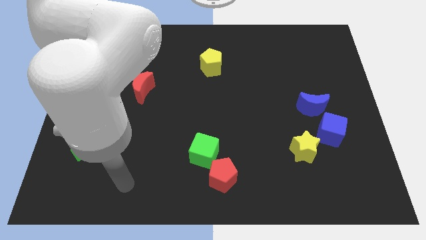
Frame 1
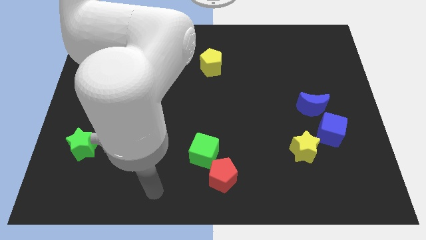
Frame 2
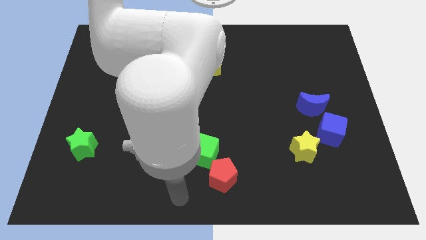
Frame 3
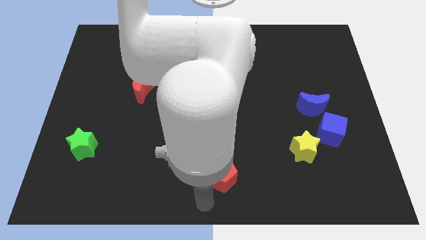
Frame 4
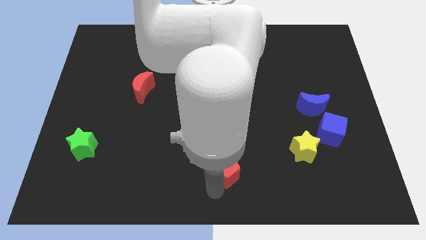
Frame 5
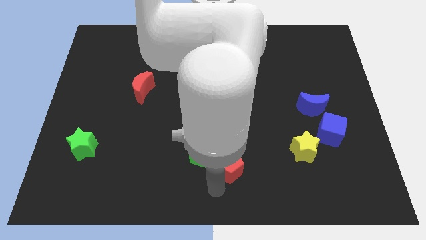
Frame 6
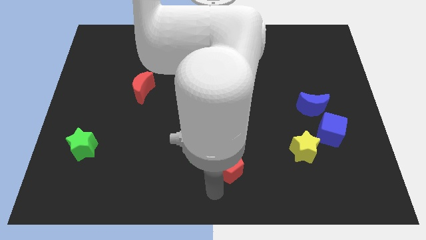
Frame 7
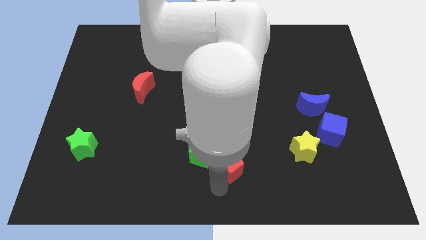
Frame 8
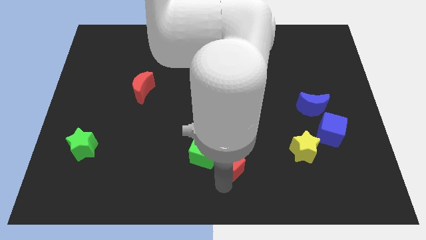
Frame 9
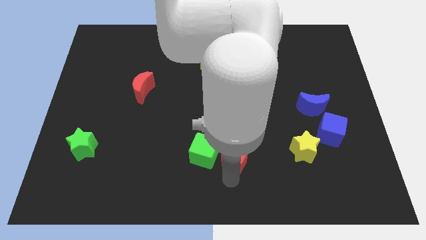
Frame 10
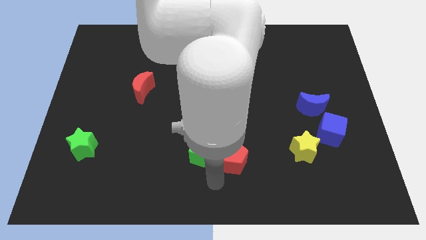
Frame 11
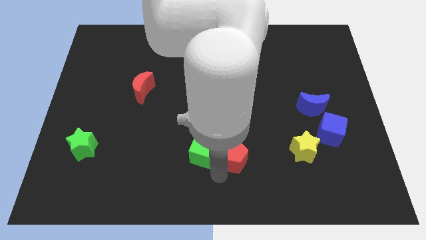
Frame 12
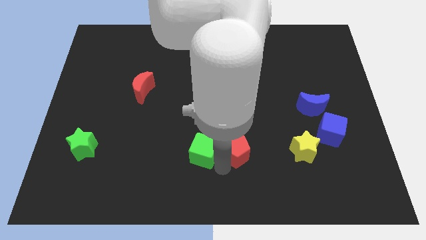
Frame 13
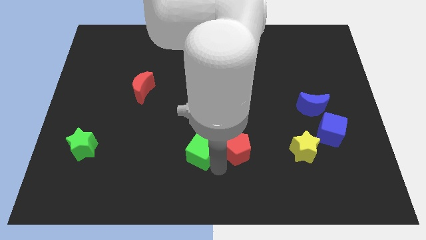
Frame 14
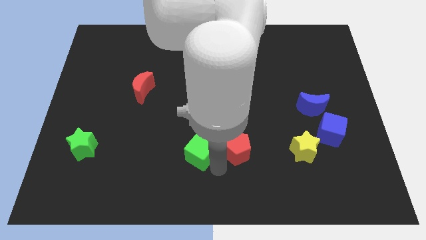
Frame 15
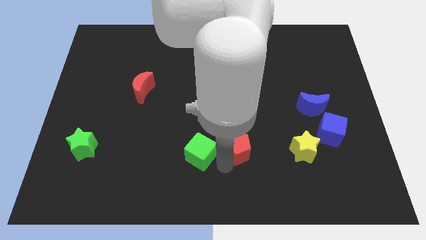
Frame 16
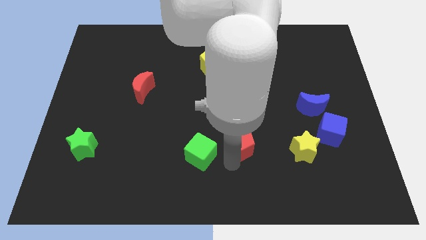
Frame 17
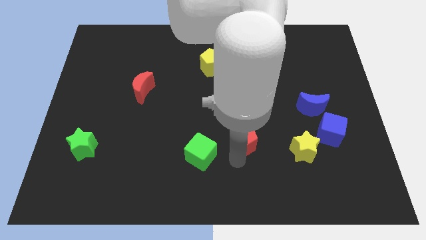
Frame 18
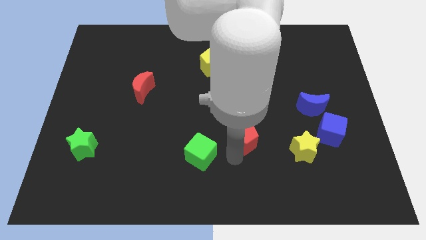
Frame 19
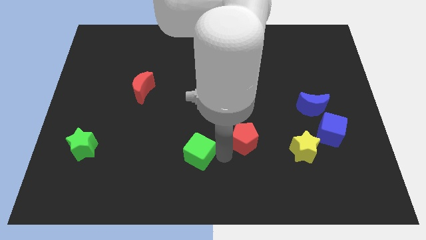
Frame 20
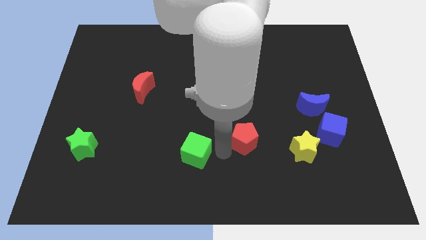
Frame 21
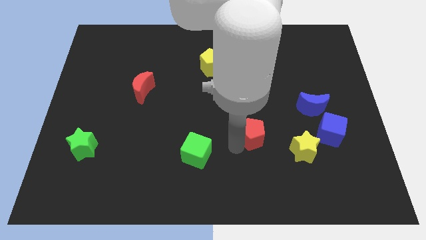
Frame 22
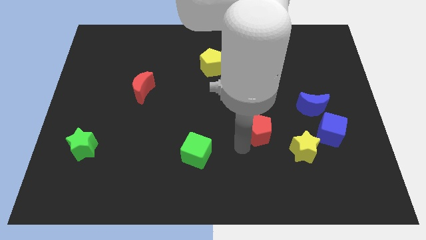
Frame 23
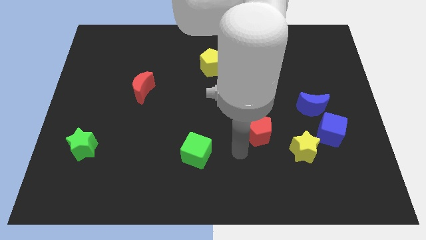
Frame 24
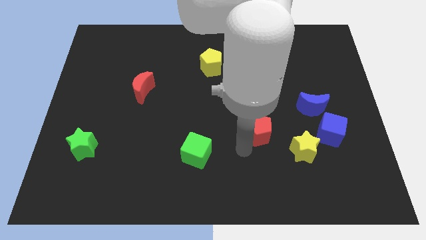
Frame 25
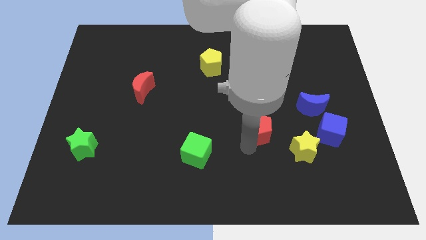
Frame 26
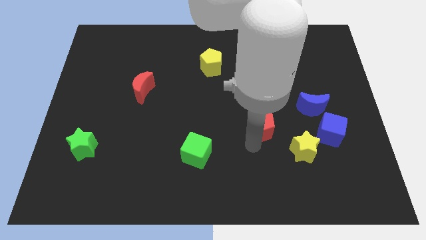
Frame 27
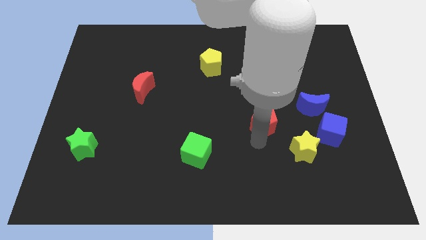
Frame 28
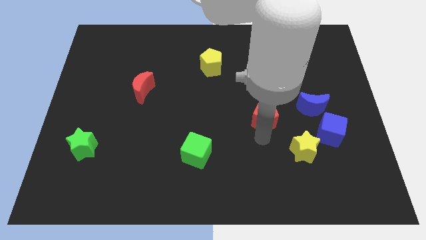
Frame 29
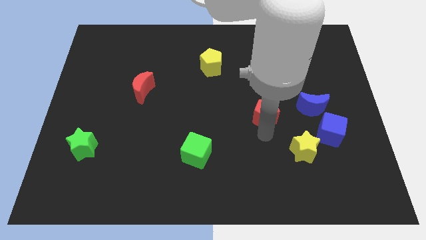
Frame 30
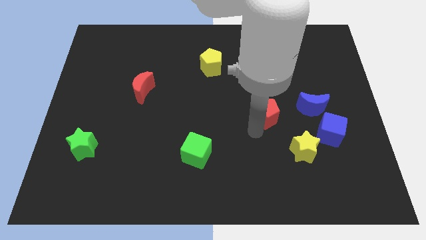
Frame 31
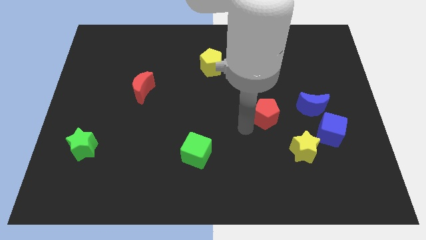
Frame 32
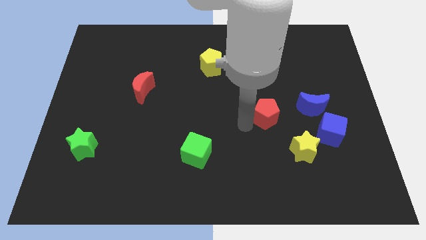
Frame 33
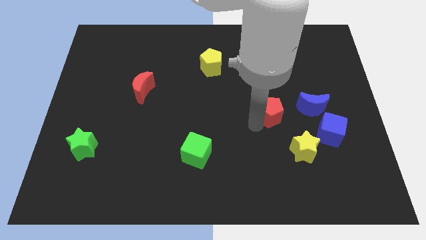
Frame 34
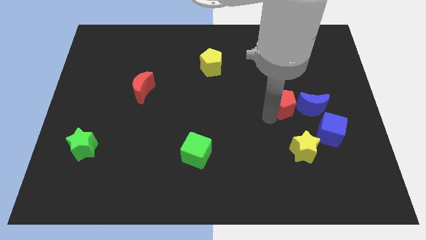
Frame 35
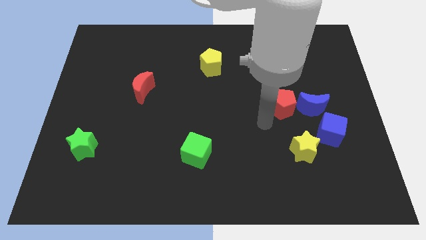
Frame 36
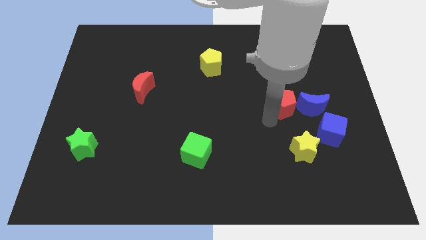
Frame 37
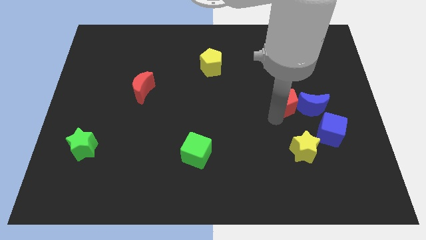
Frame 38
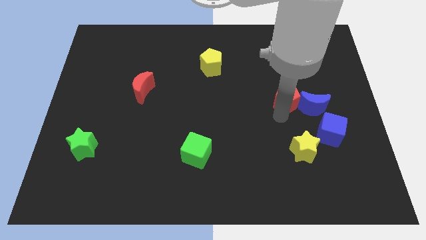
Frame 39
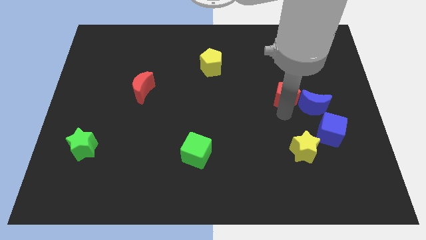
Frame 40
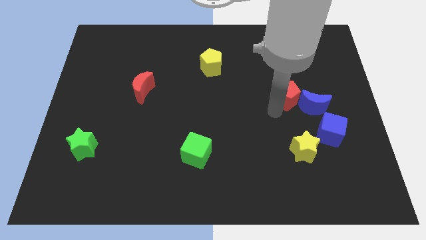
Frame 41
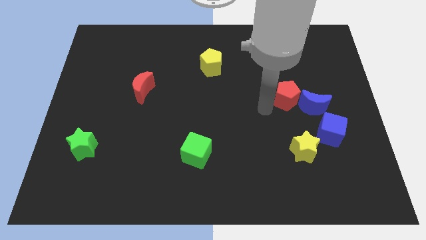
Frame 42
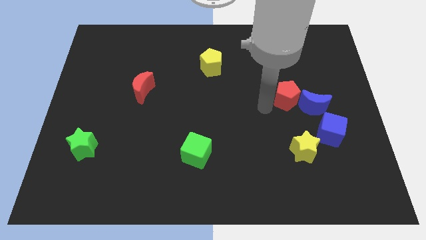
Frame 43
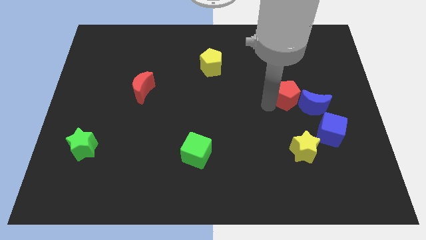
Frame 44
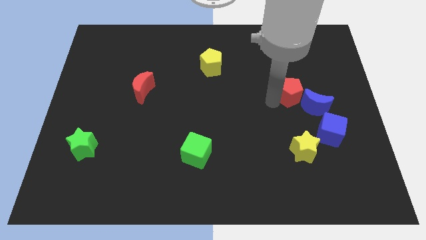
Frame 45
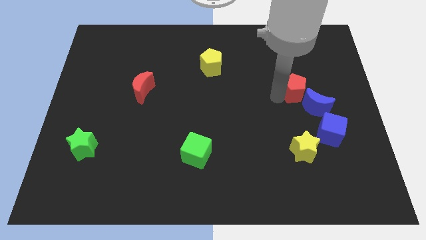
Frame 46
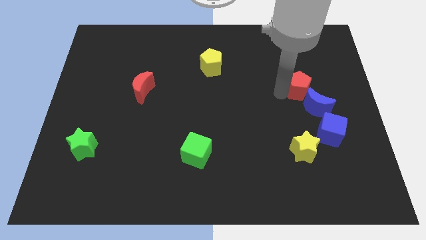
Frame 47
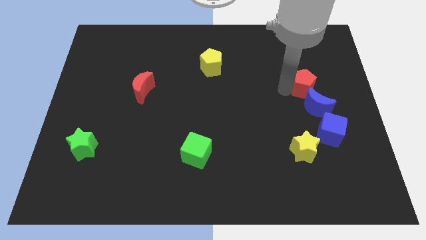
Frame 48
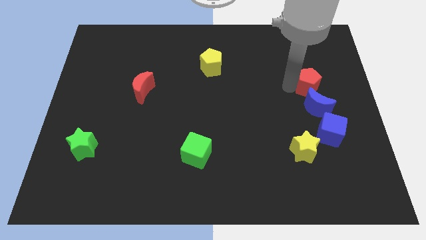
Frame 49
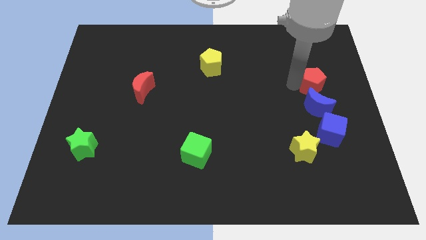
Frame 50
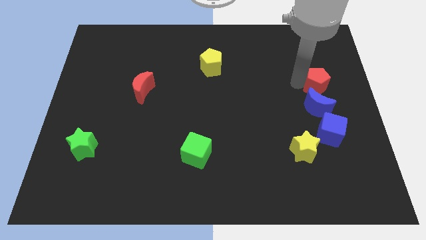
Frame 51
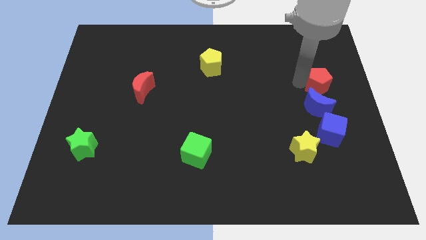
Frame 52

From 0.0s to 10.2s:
move the red pentagon to the right side of the board

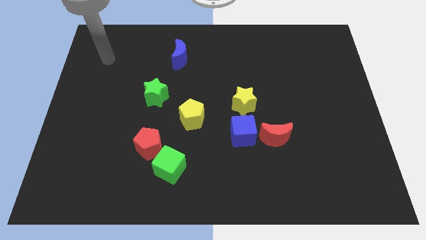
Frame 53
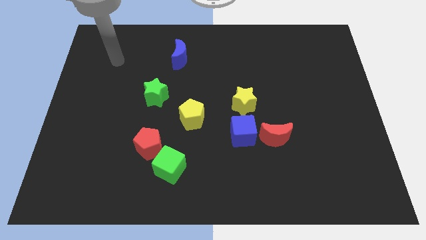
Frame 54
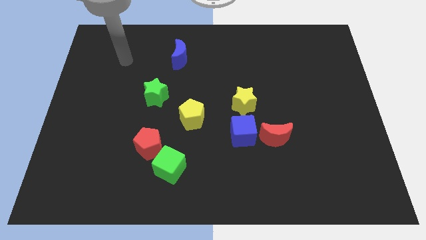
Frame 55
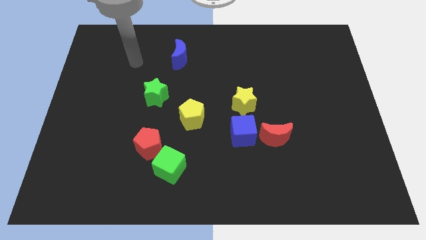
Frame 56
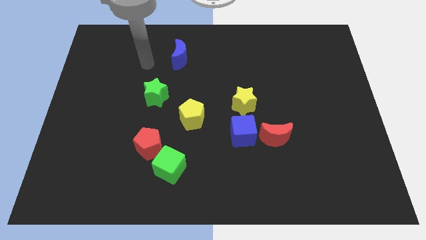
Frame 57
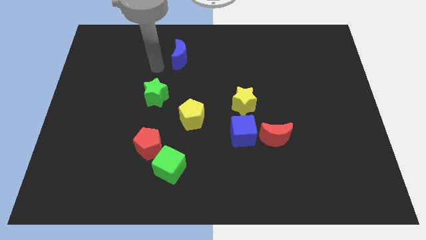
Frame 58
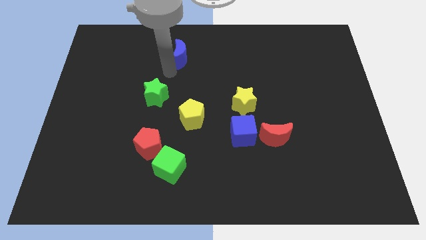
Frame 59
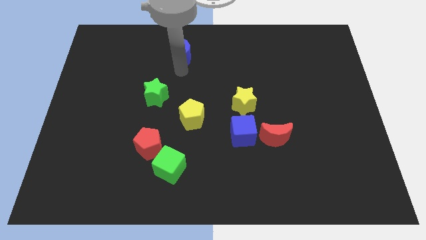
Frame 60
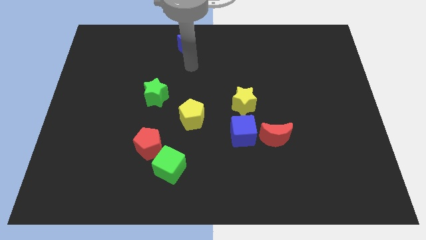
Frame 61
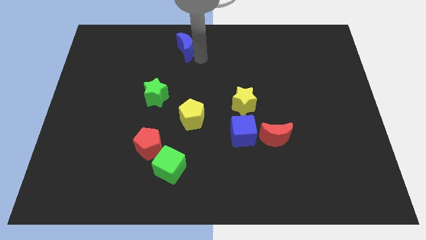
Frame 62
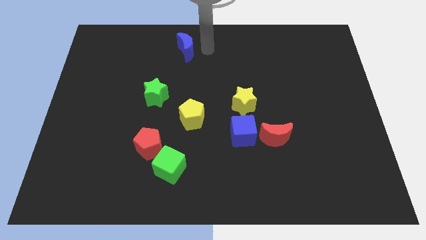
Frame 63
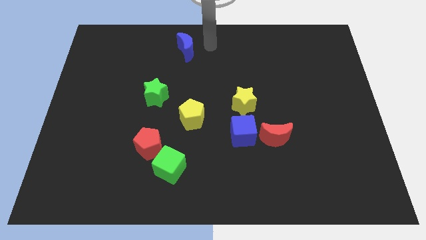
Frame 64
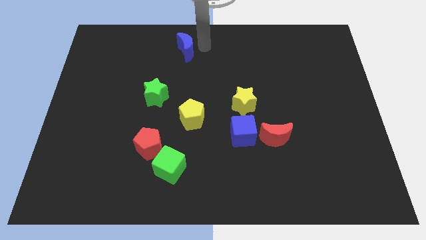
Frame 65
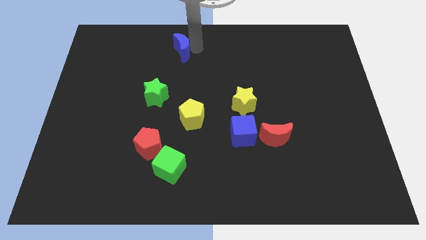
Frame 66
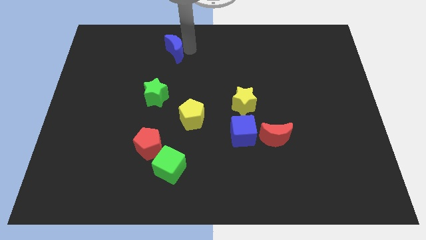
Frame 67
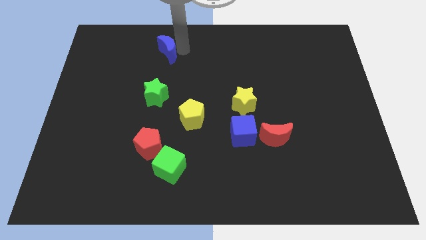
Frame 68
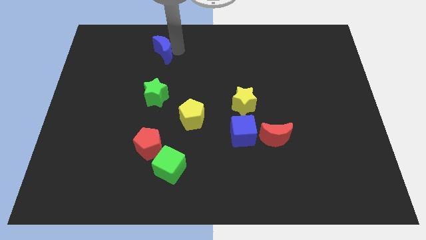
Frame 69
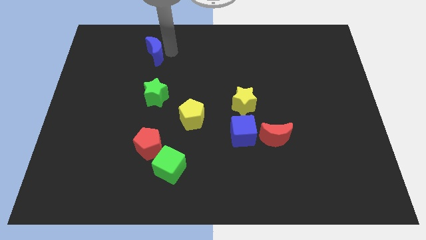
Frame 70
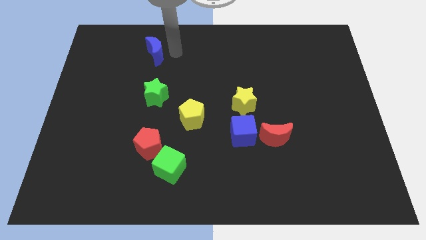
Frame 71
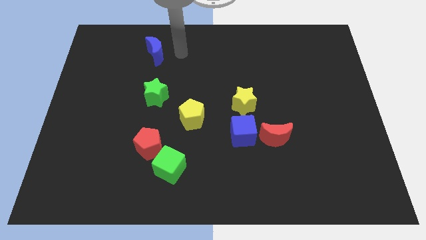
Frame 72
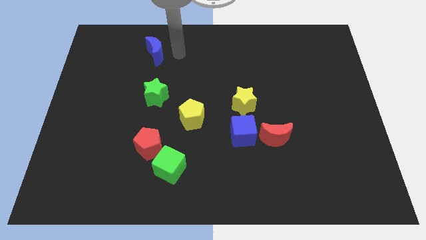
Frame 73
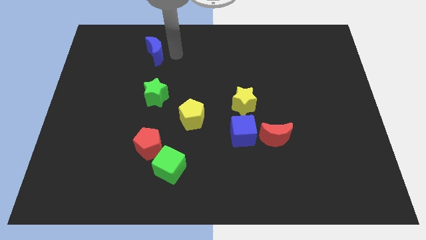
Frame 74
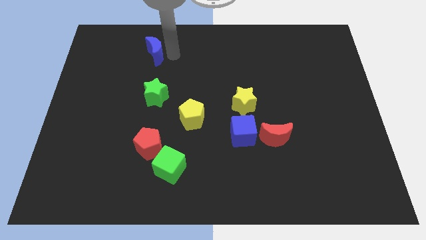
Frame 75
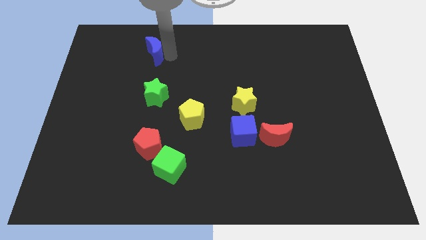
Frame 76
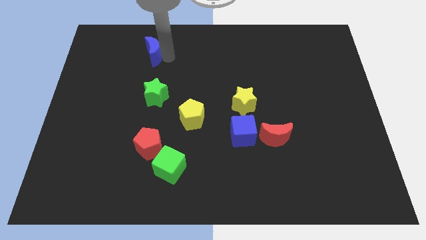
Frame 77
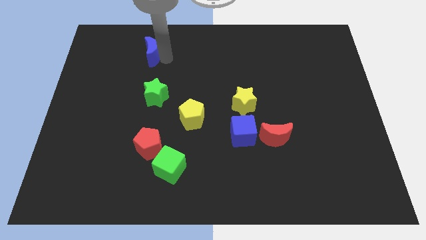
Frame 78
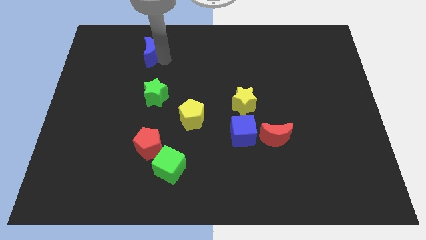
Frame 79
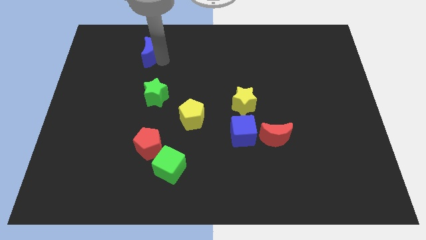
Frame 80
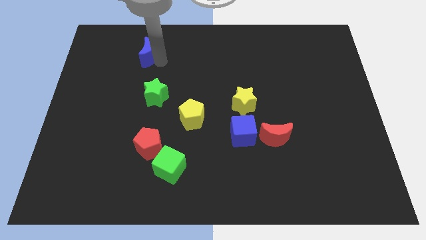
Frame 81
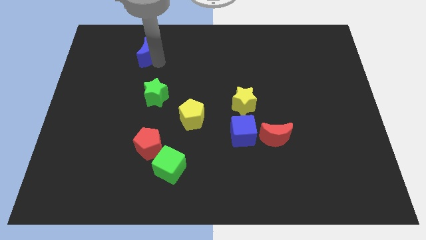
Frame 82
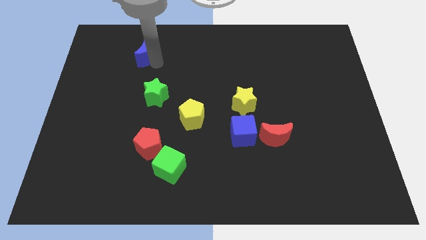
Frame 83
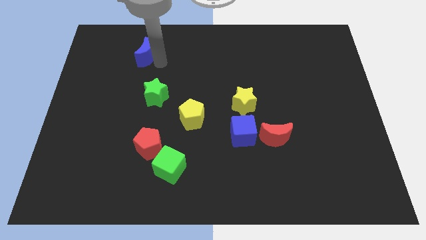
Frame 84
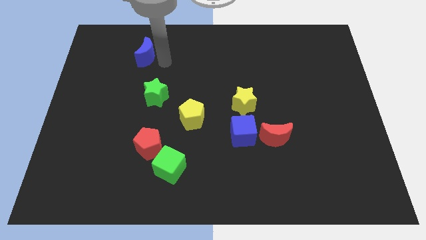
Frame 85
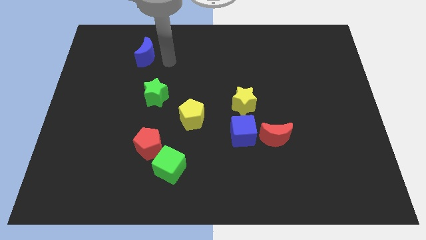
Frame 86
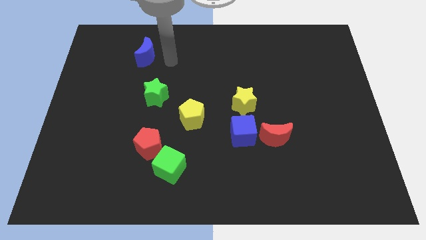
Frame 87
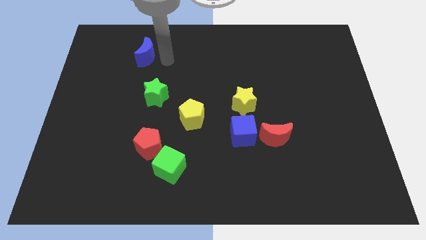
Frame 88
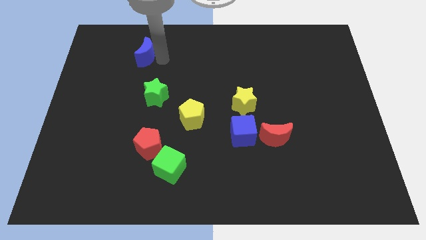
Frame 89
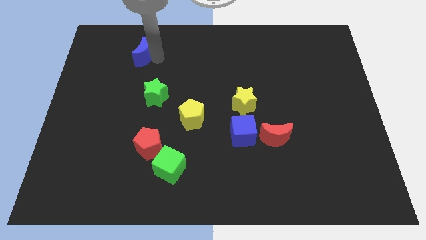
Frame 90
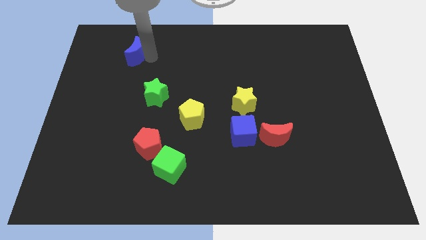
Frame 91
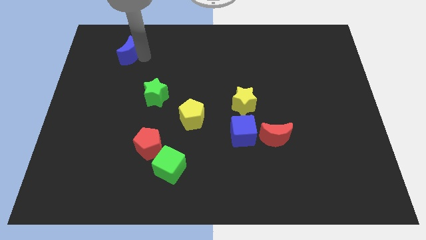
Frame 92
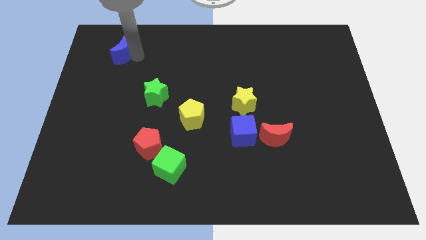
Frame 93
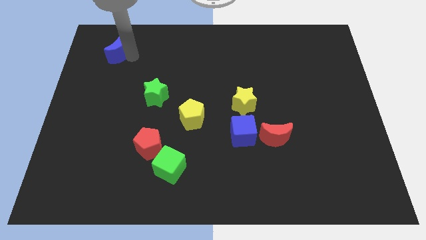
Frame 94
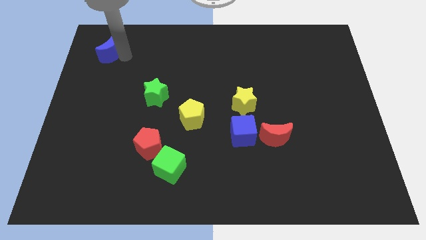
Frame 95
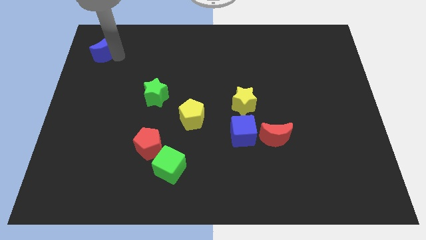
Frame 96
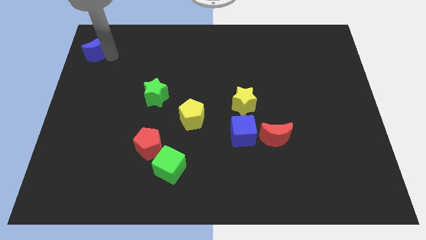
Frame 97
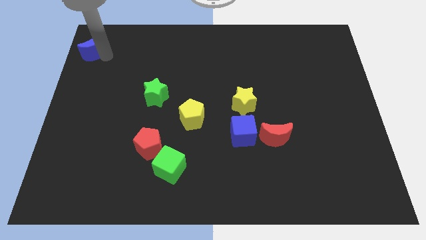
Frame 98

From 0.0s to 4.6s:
move the blue moon to the upper left corner
